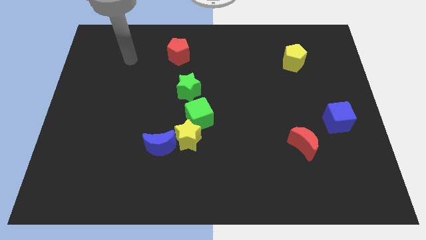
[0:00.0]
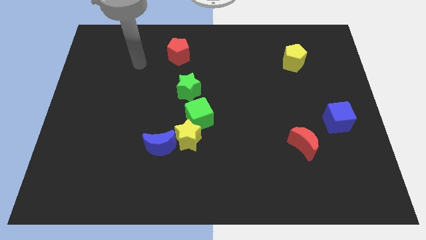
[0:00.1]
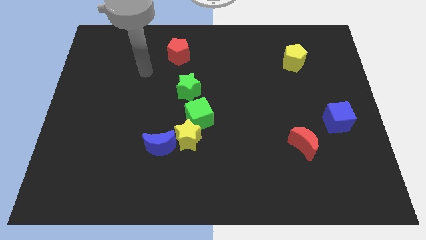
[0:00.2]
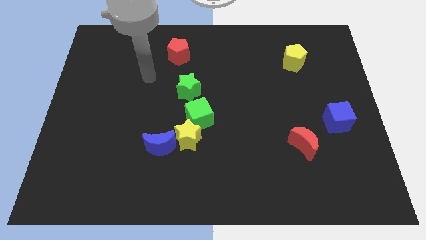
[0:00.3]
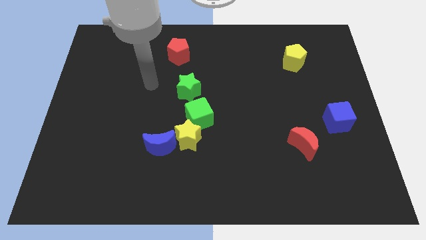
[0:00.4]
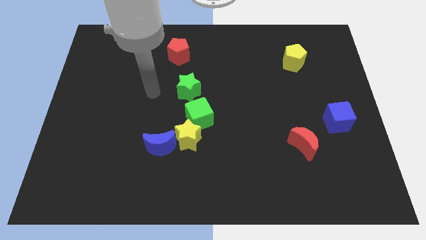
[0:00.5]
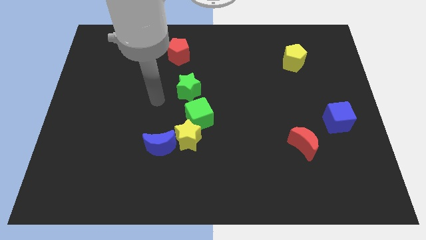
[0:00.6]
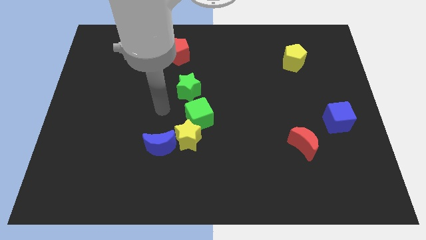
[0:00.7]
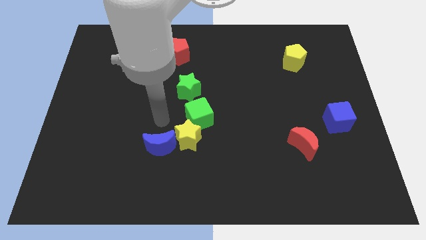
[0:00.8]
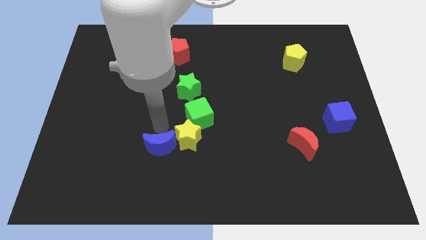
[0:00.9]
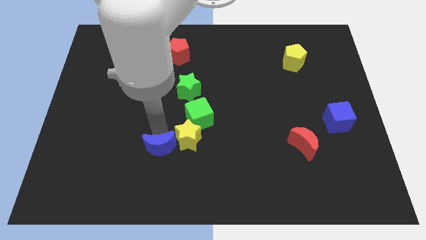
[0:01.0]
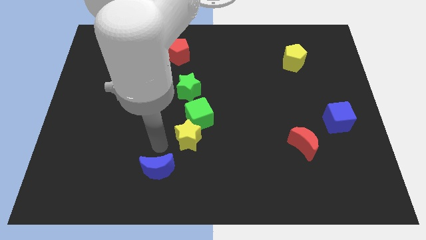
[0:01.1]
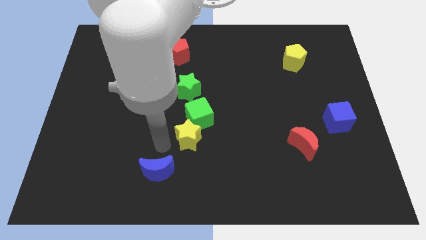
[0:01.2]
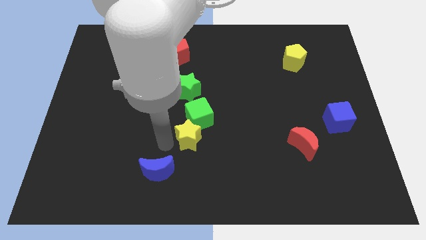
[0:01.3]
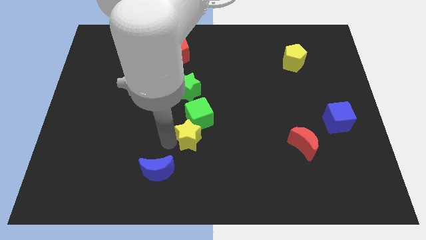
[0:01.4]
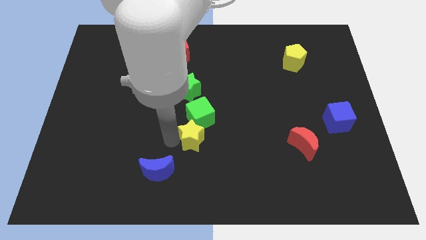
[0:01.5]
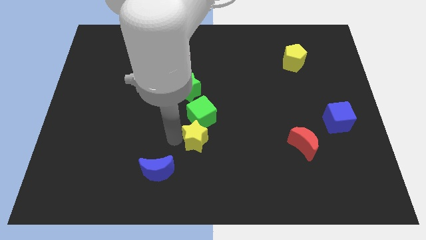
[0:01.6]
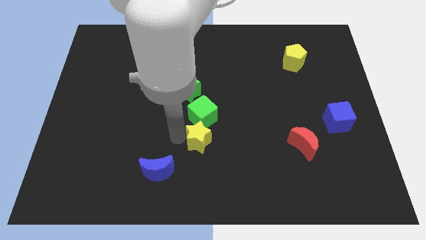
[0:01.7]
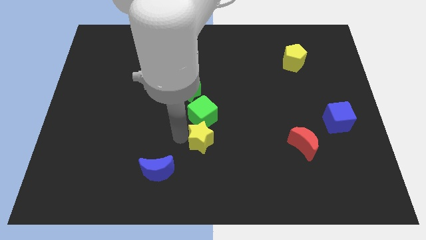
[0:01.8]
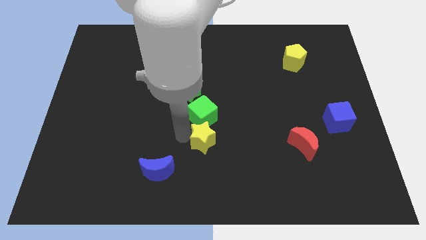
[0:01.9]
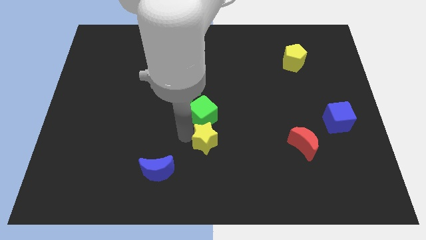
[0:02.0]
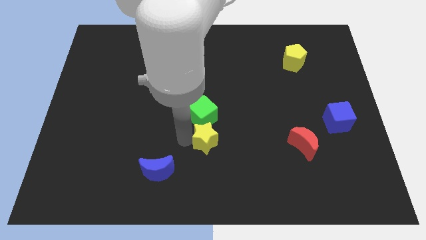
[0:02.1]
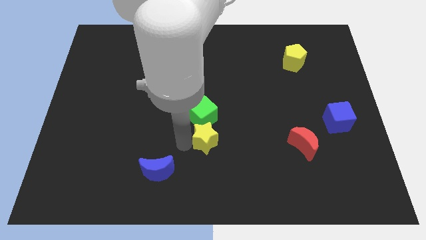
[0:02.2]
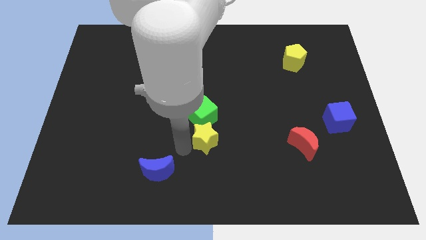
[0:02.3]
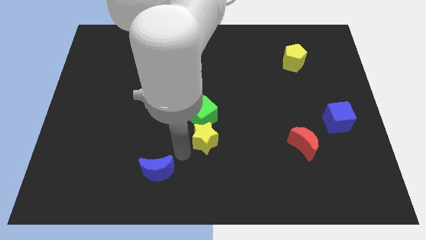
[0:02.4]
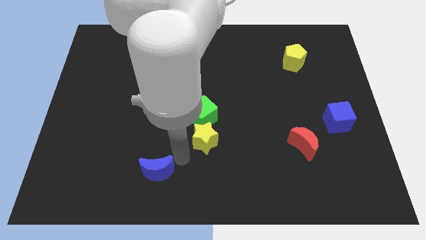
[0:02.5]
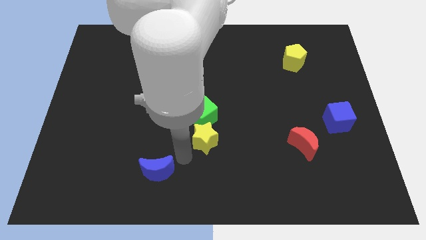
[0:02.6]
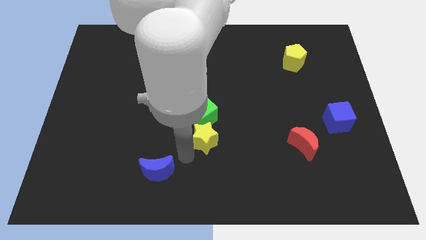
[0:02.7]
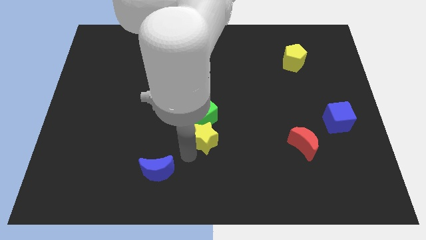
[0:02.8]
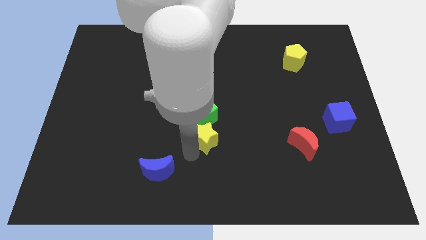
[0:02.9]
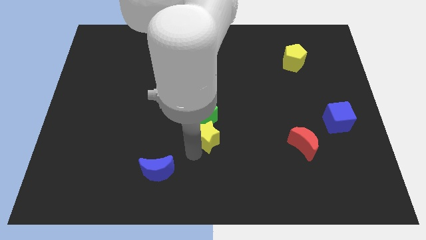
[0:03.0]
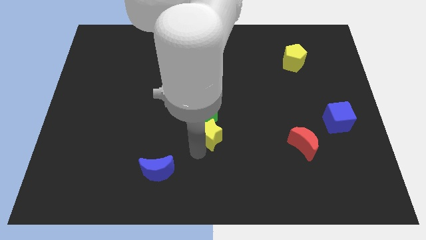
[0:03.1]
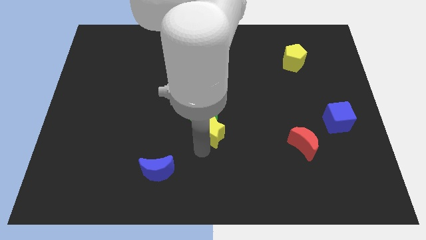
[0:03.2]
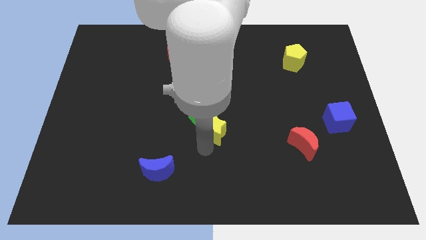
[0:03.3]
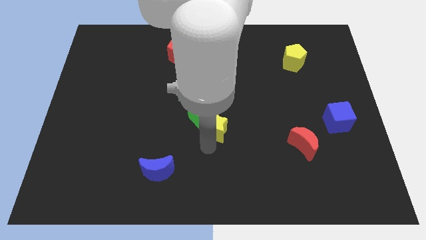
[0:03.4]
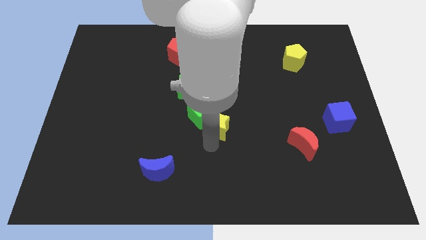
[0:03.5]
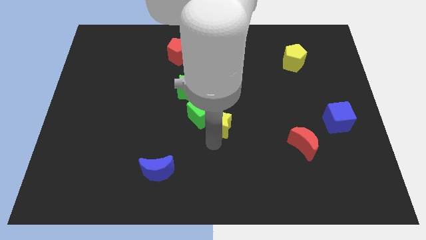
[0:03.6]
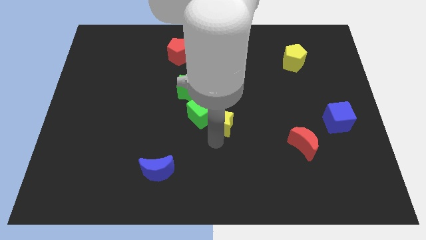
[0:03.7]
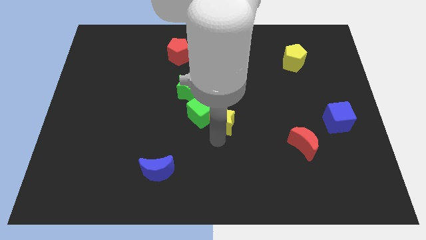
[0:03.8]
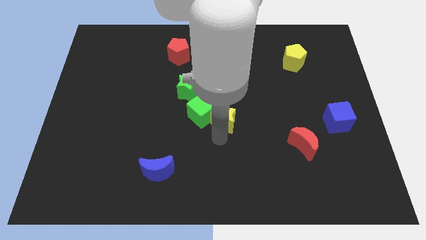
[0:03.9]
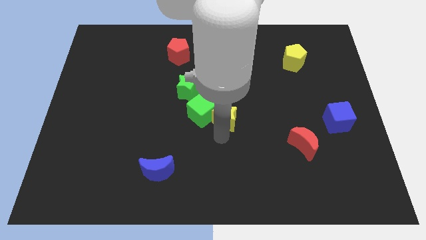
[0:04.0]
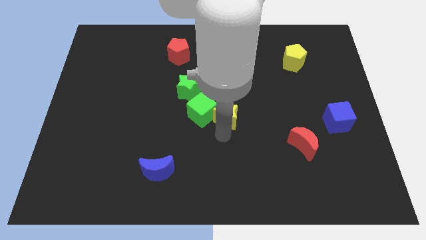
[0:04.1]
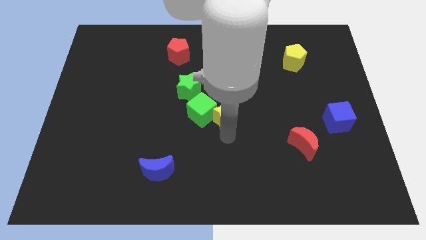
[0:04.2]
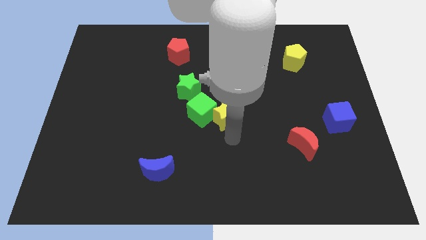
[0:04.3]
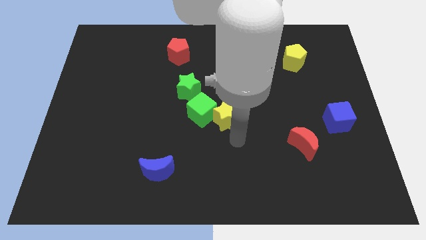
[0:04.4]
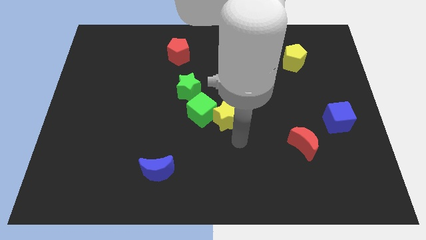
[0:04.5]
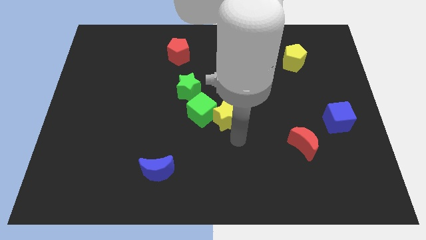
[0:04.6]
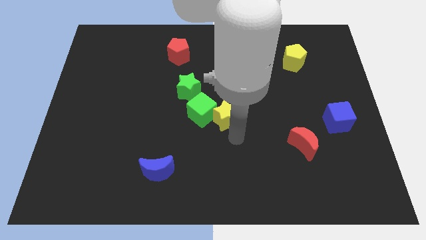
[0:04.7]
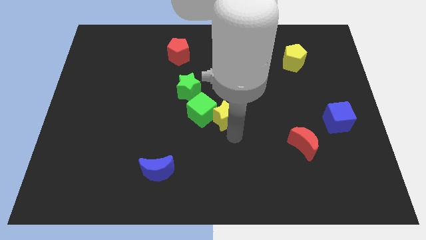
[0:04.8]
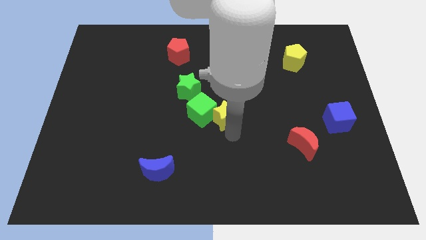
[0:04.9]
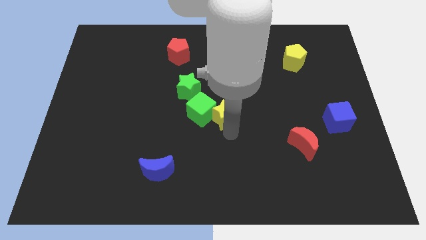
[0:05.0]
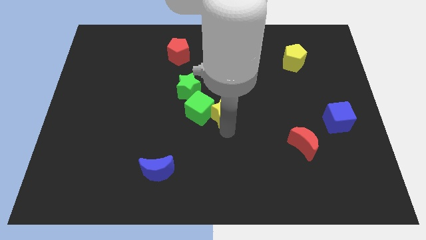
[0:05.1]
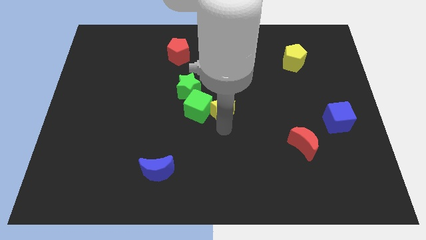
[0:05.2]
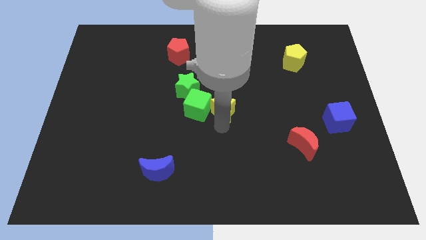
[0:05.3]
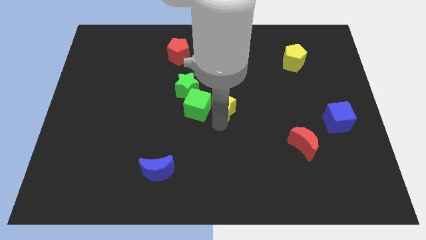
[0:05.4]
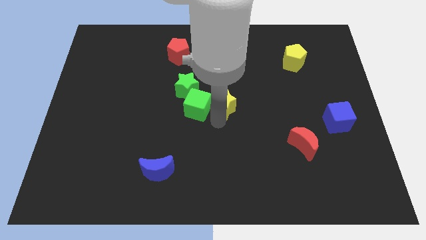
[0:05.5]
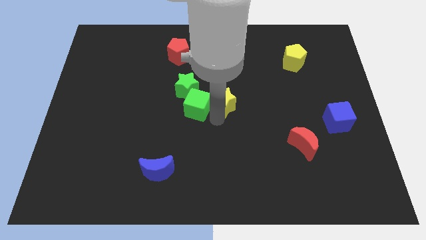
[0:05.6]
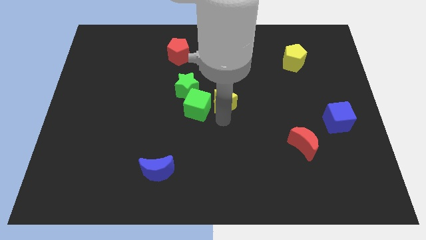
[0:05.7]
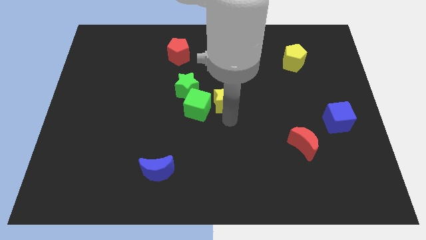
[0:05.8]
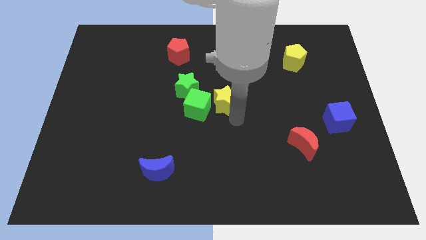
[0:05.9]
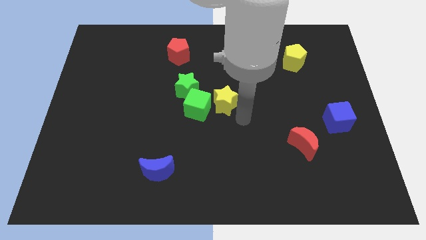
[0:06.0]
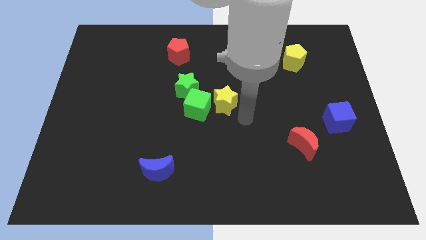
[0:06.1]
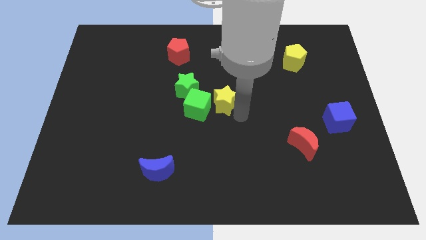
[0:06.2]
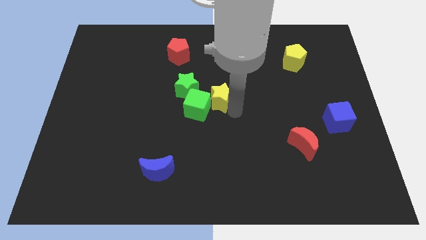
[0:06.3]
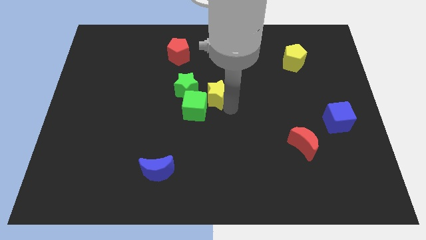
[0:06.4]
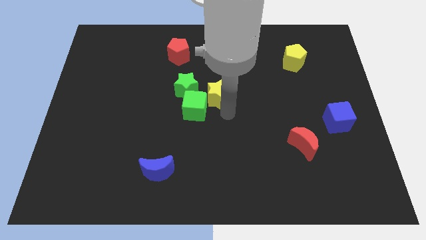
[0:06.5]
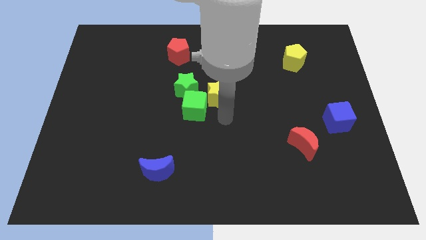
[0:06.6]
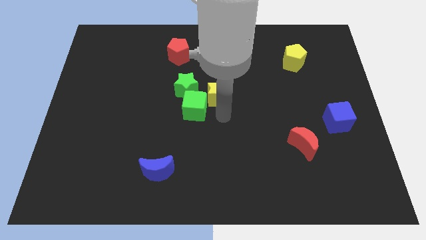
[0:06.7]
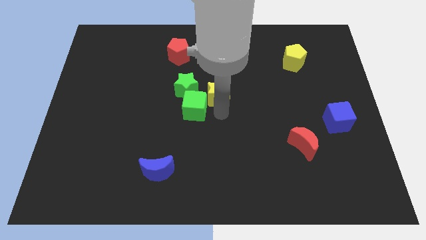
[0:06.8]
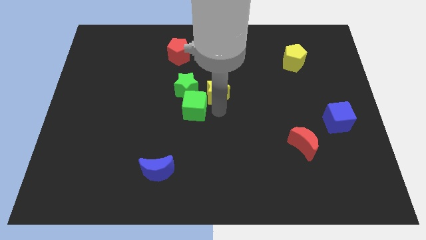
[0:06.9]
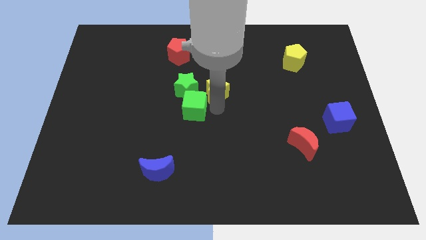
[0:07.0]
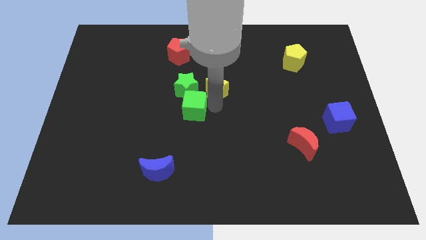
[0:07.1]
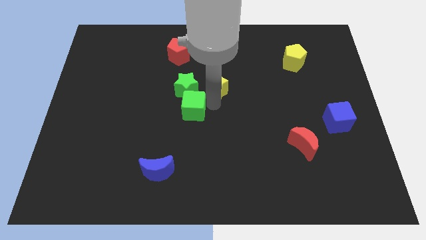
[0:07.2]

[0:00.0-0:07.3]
move the yellow star to the top right side of the green star
